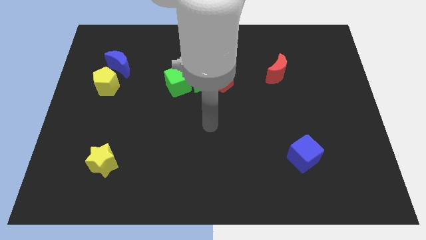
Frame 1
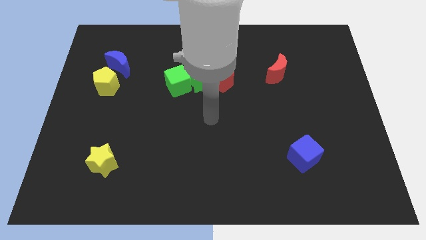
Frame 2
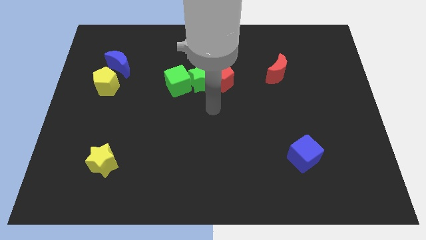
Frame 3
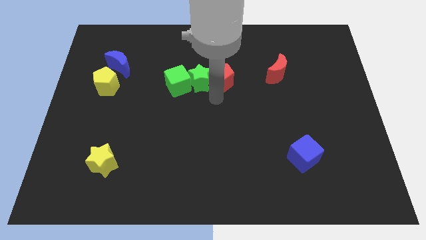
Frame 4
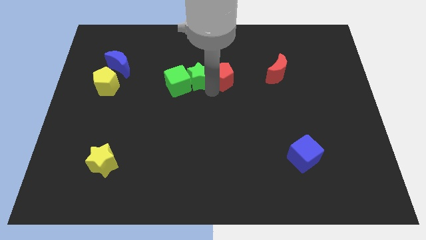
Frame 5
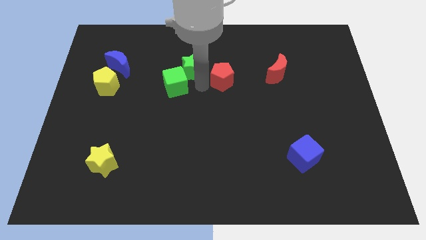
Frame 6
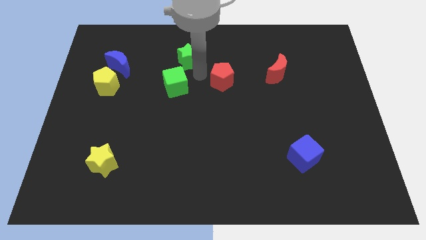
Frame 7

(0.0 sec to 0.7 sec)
separate the red pentagon from the green star

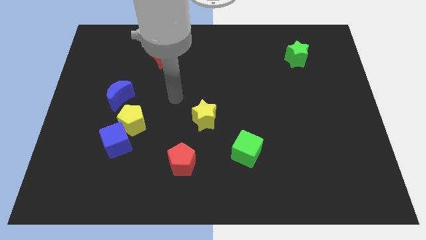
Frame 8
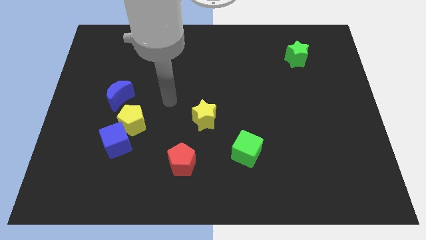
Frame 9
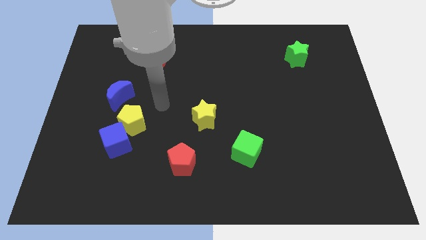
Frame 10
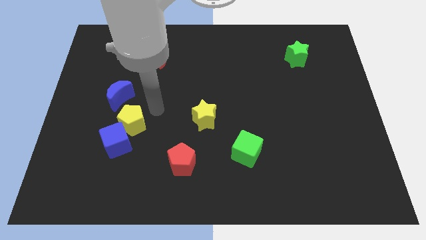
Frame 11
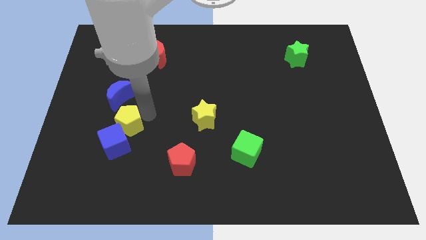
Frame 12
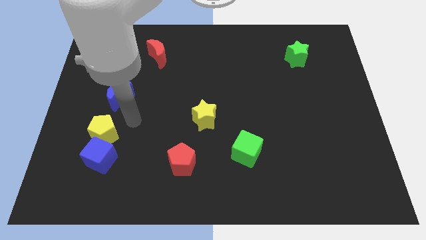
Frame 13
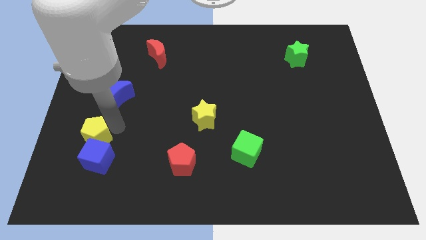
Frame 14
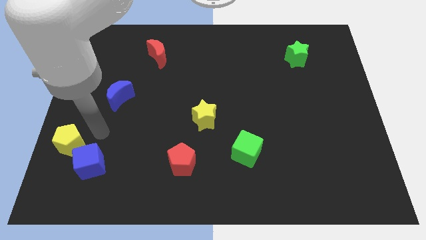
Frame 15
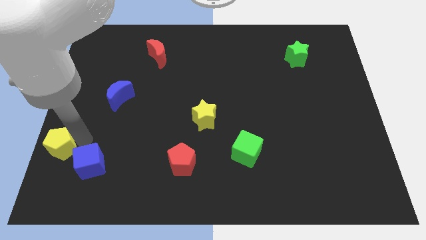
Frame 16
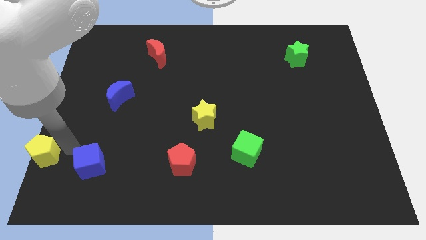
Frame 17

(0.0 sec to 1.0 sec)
pull the blue cube apart from the yellow pentagon

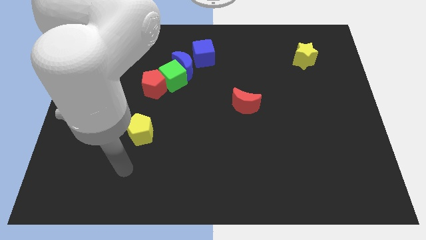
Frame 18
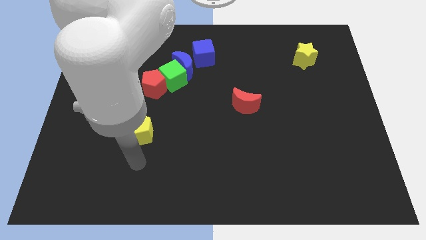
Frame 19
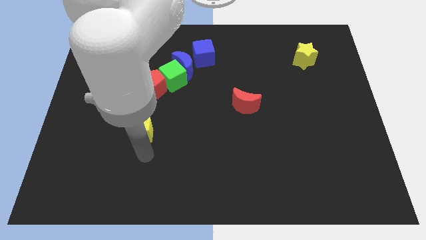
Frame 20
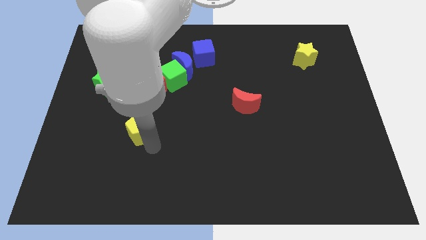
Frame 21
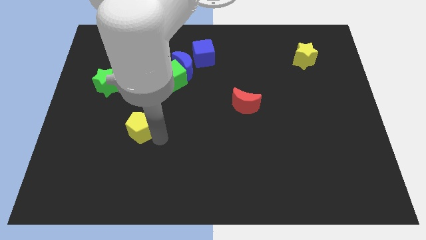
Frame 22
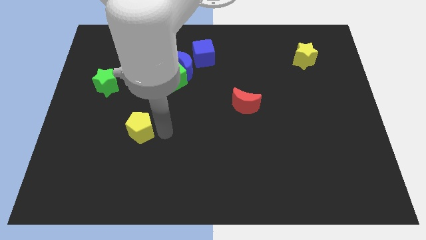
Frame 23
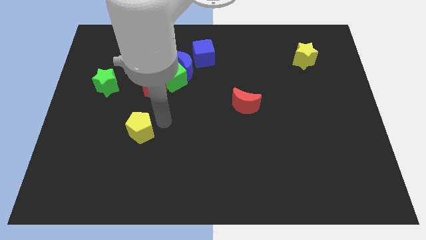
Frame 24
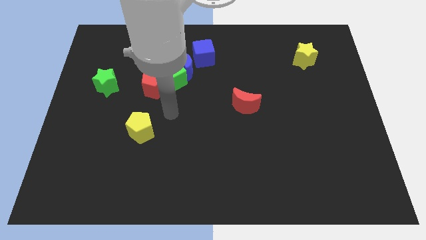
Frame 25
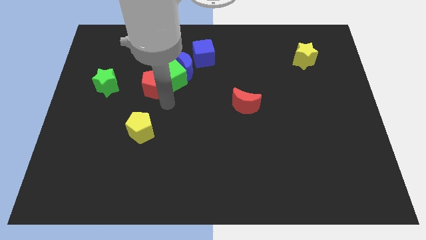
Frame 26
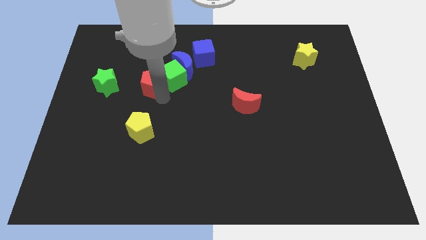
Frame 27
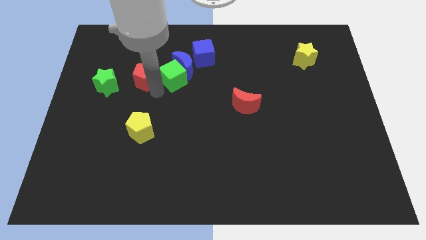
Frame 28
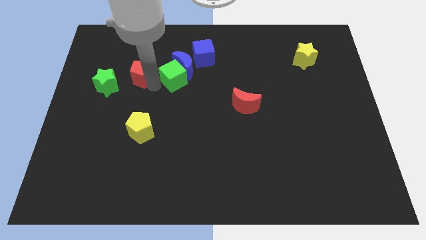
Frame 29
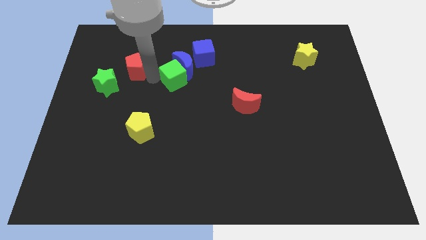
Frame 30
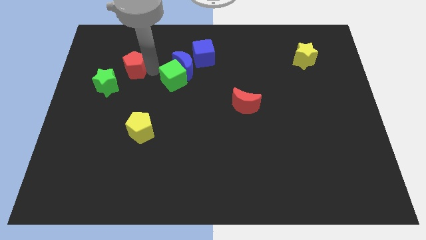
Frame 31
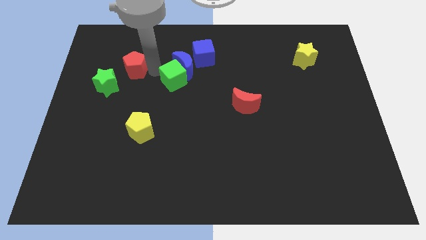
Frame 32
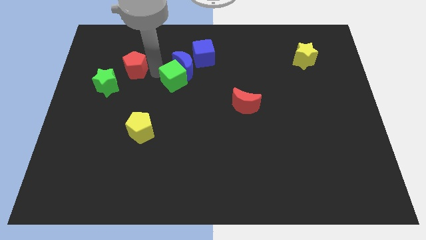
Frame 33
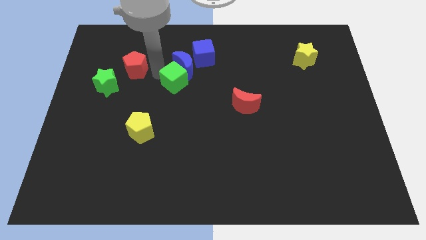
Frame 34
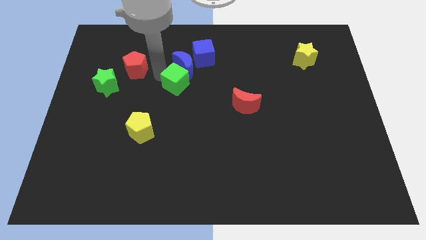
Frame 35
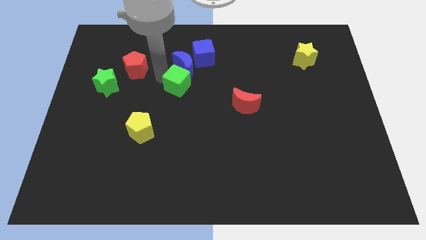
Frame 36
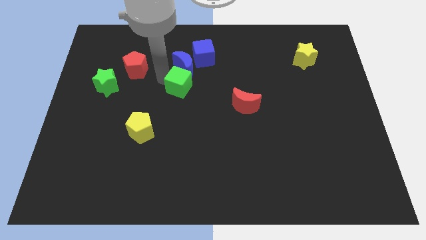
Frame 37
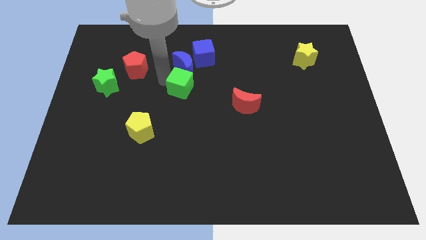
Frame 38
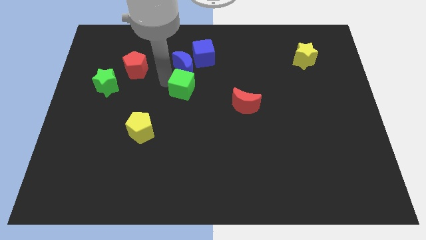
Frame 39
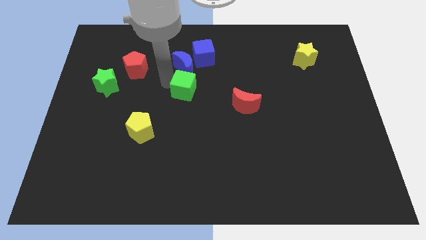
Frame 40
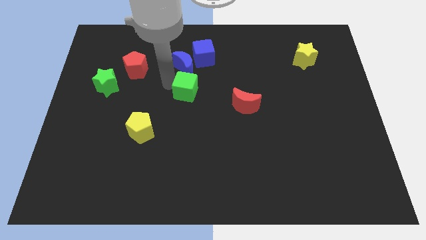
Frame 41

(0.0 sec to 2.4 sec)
move the green cube away from the blue moon and red pentagon

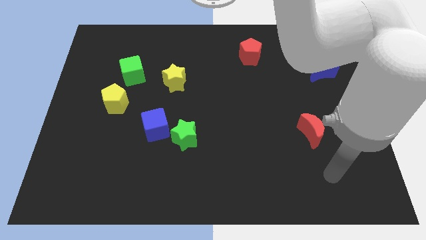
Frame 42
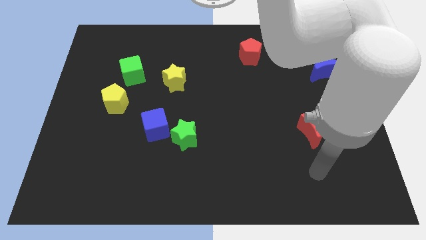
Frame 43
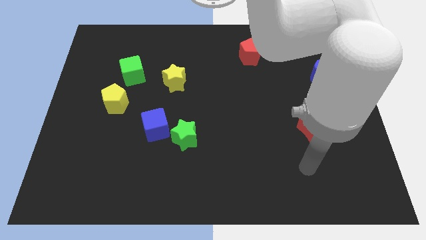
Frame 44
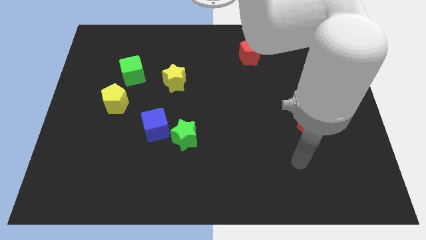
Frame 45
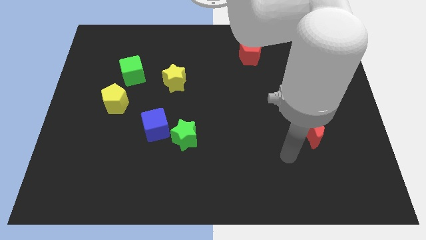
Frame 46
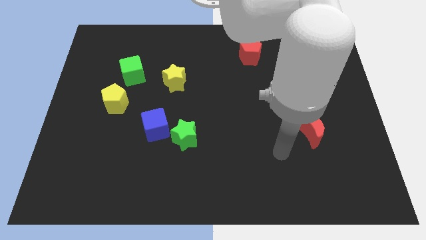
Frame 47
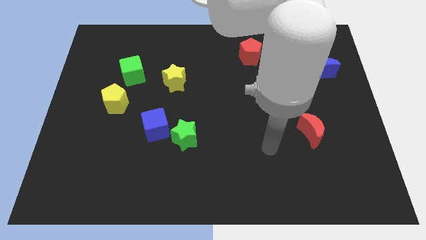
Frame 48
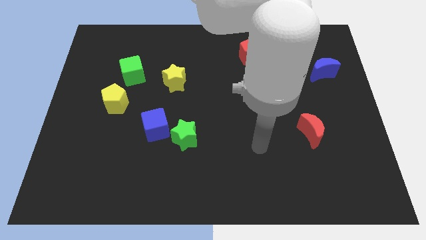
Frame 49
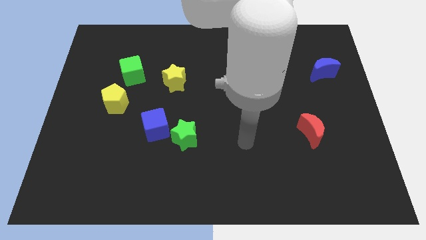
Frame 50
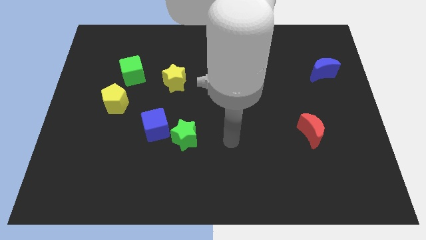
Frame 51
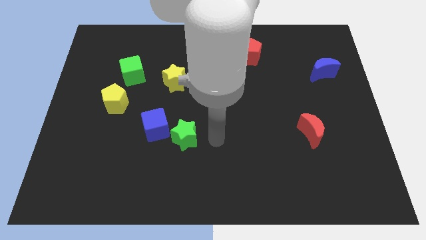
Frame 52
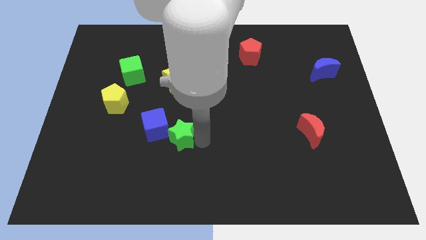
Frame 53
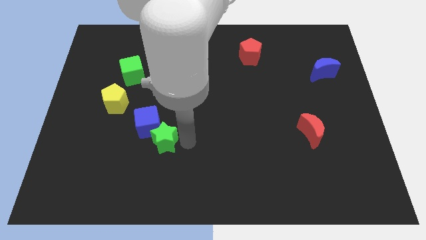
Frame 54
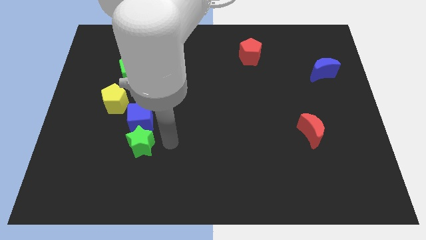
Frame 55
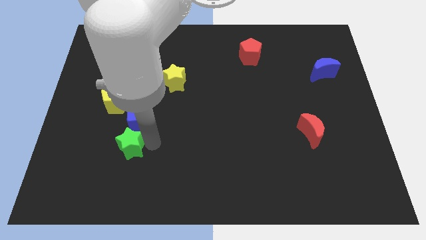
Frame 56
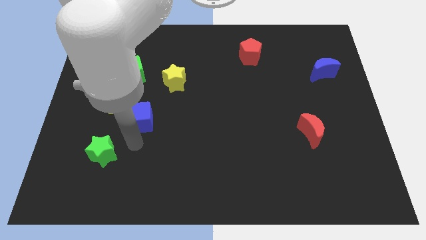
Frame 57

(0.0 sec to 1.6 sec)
separate the blue cube from the green star

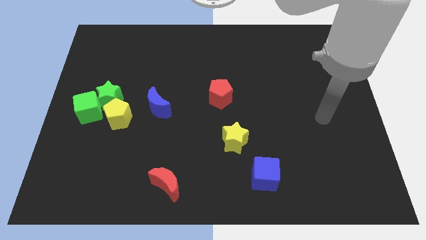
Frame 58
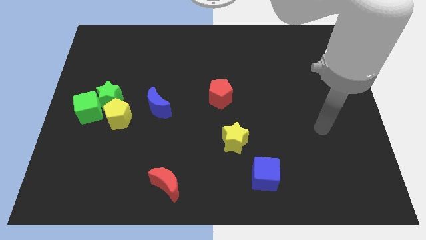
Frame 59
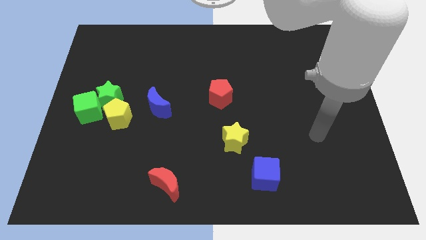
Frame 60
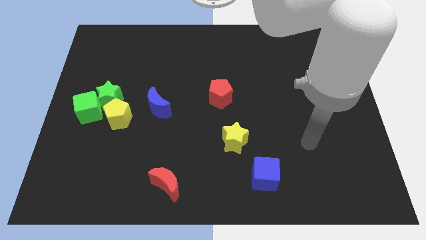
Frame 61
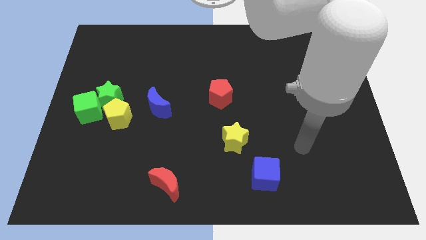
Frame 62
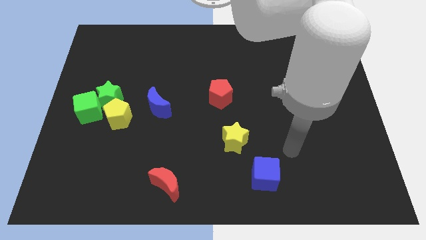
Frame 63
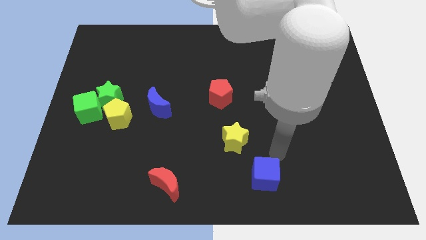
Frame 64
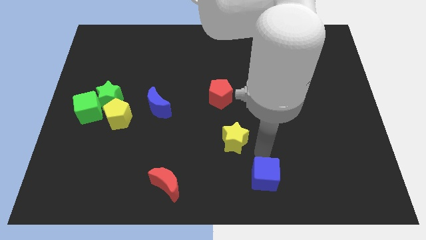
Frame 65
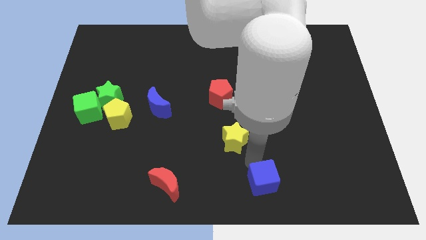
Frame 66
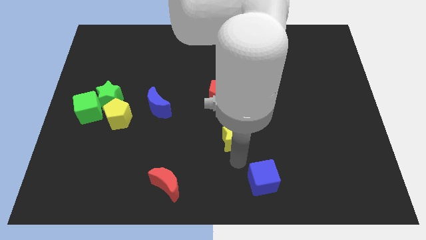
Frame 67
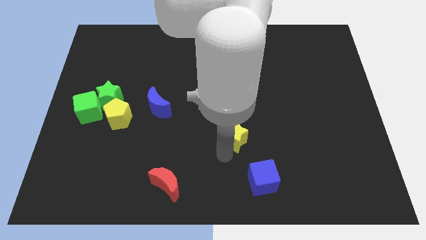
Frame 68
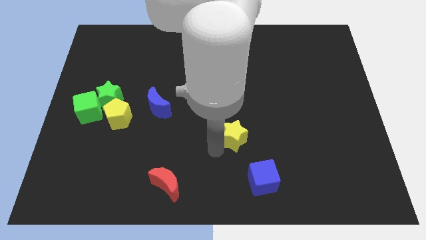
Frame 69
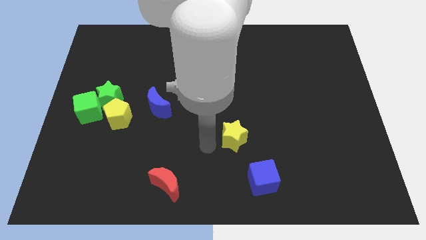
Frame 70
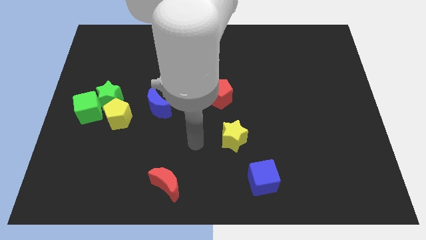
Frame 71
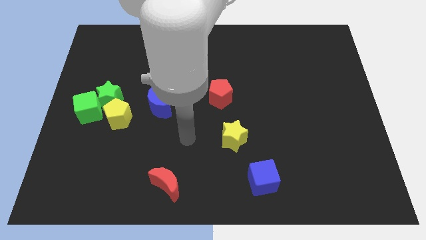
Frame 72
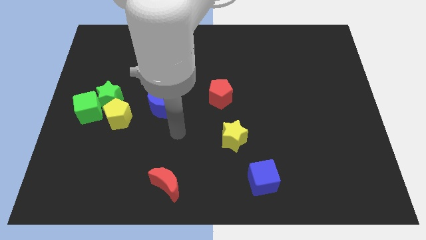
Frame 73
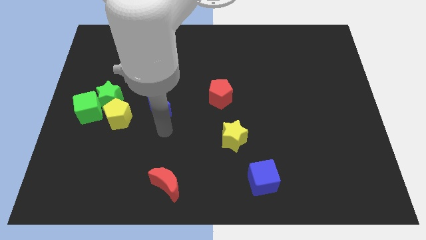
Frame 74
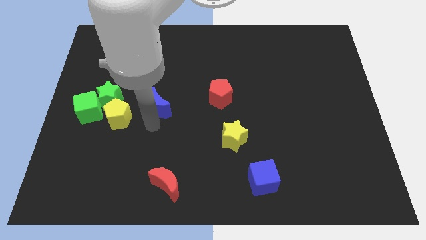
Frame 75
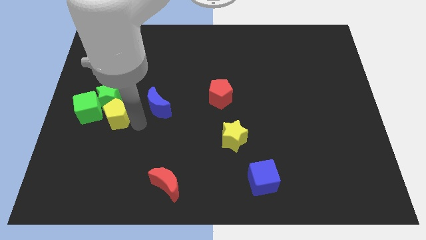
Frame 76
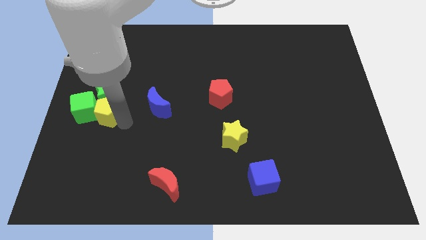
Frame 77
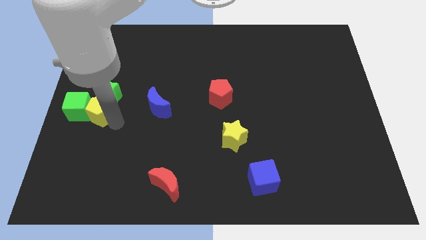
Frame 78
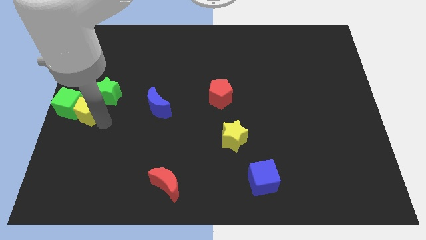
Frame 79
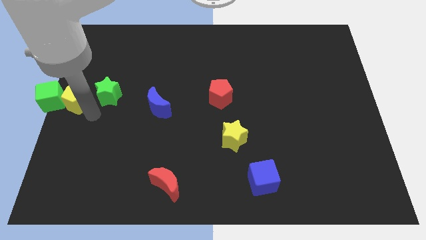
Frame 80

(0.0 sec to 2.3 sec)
separate the green star from the green cube and yellow pentagon

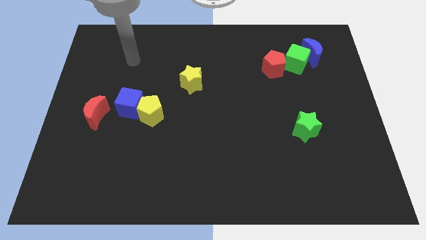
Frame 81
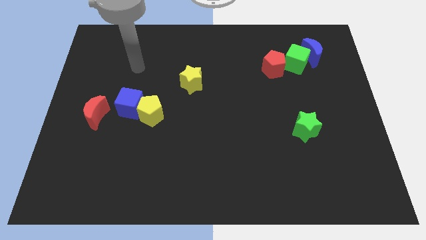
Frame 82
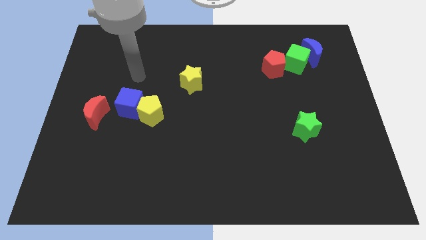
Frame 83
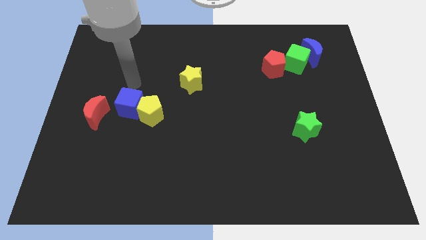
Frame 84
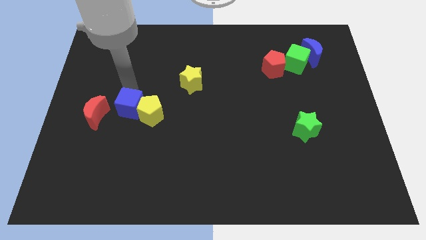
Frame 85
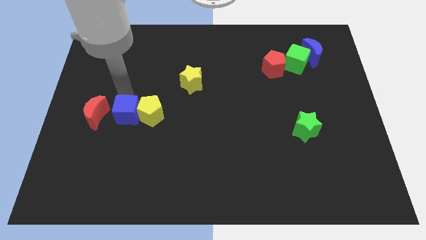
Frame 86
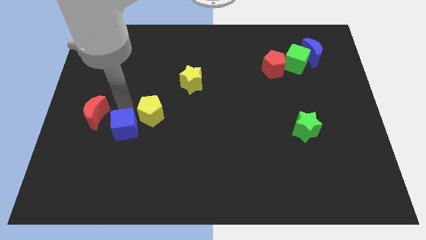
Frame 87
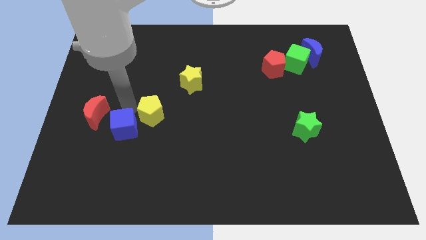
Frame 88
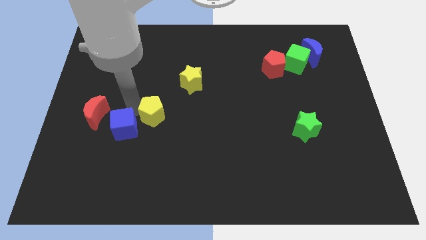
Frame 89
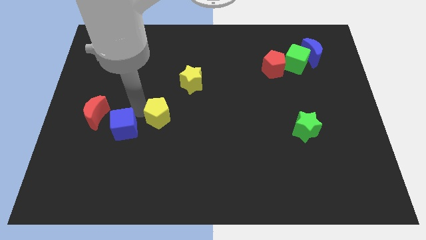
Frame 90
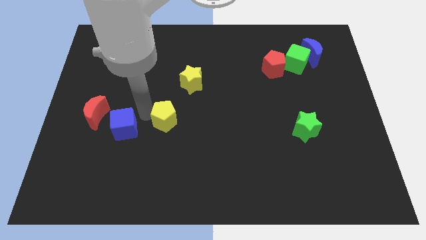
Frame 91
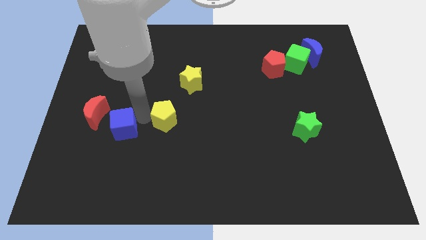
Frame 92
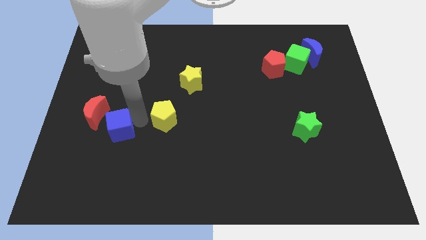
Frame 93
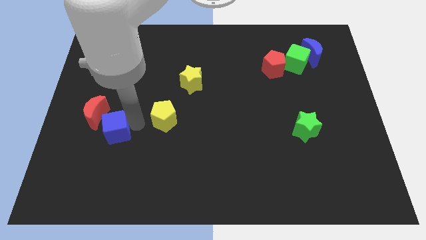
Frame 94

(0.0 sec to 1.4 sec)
separate the yellow pentagon from the blue cube
